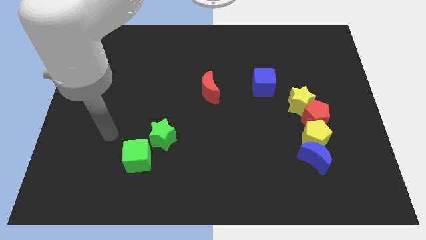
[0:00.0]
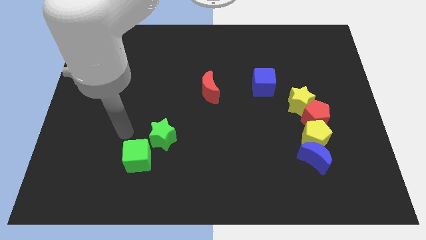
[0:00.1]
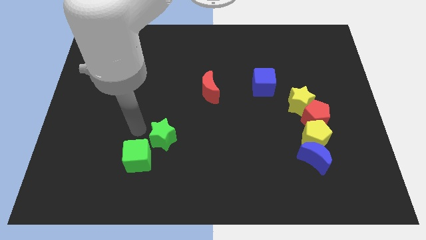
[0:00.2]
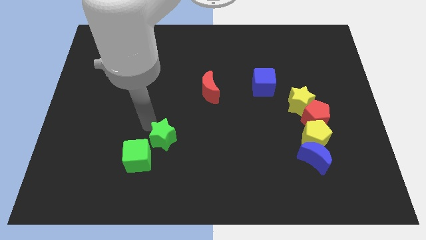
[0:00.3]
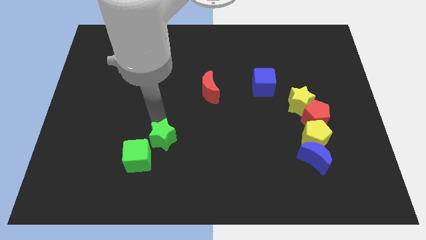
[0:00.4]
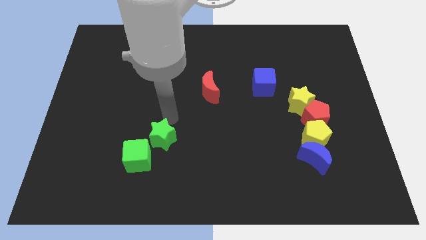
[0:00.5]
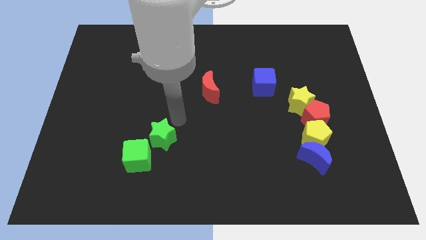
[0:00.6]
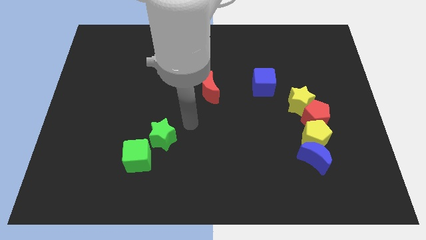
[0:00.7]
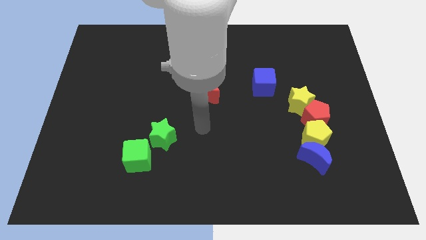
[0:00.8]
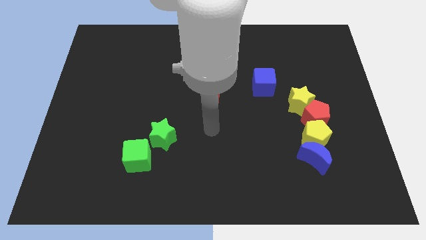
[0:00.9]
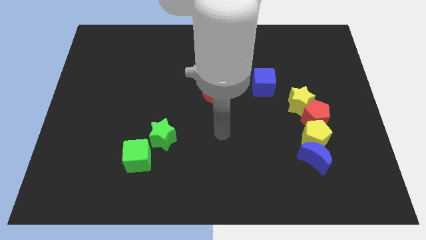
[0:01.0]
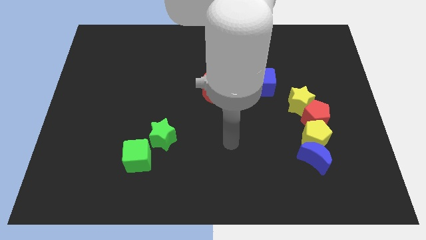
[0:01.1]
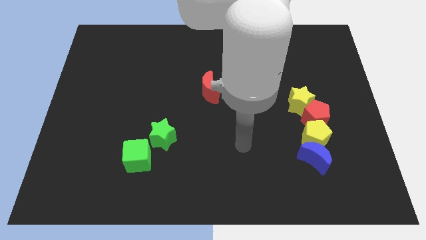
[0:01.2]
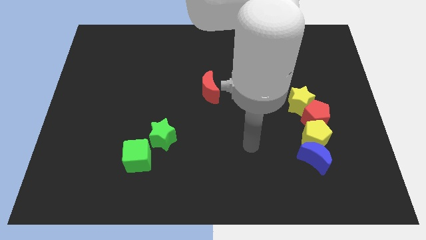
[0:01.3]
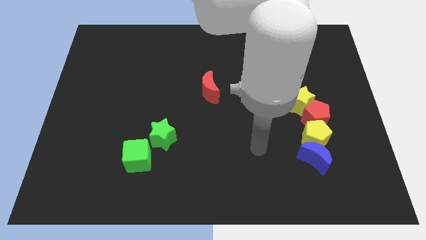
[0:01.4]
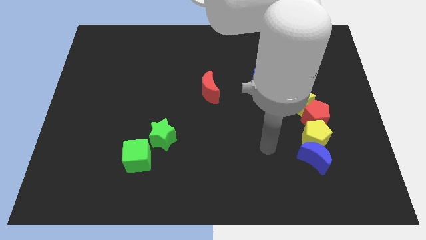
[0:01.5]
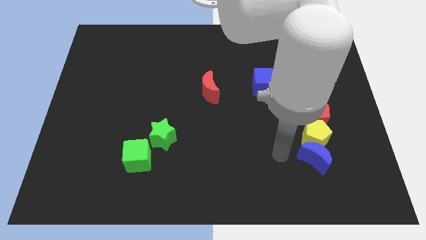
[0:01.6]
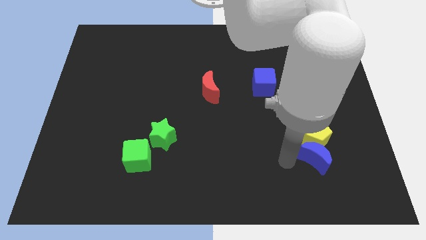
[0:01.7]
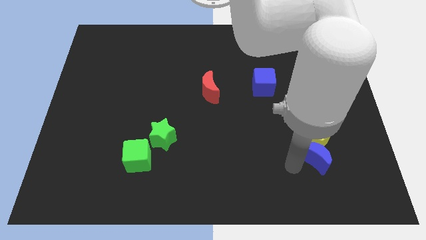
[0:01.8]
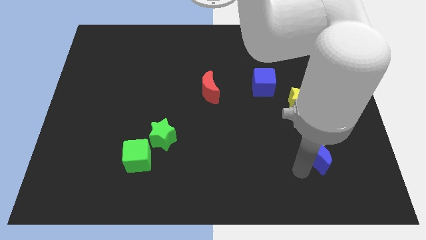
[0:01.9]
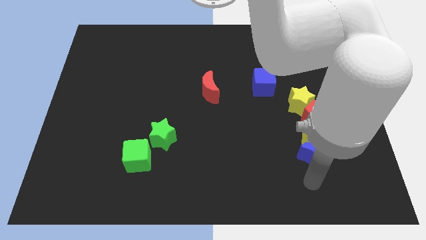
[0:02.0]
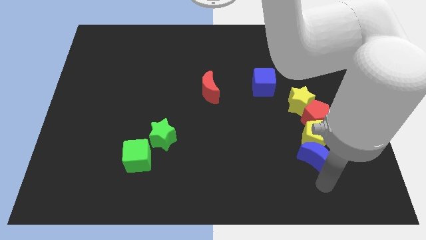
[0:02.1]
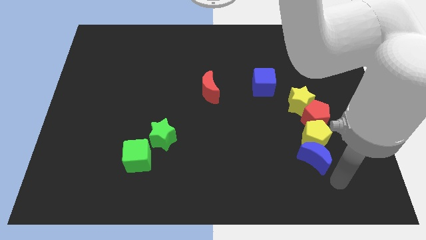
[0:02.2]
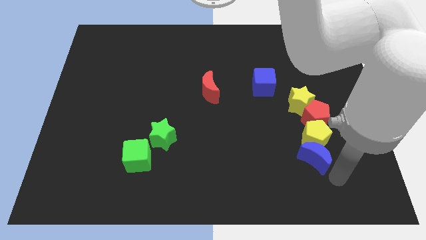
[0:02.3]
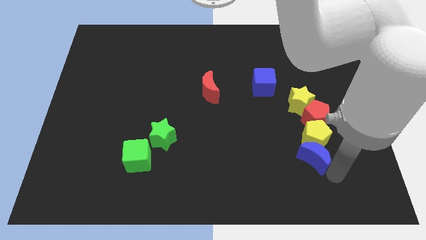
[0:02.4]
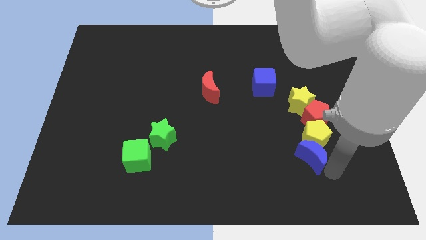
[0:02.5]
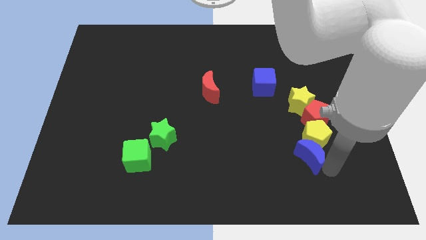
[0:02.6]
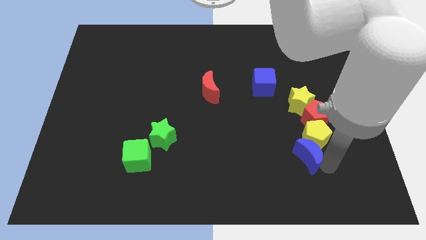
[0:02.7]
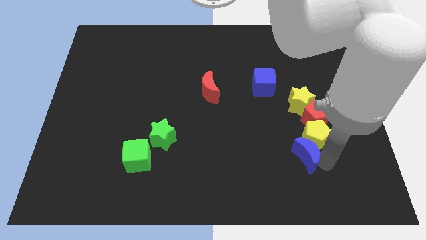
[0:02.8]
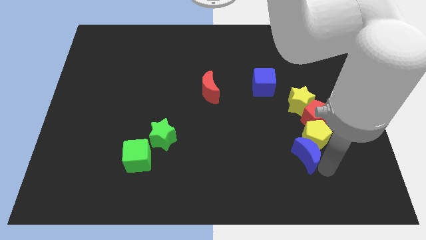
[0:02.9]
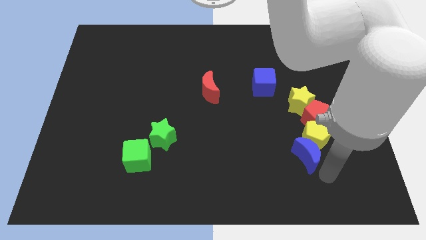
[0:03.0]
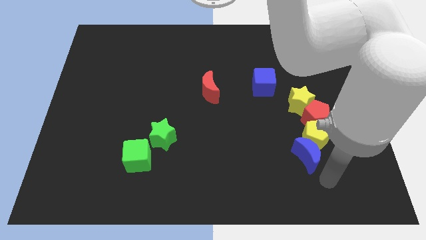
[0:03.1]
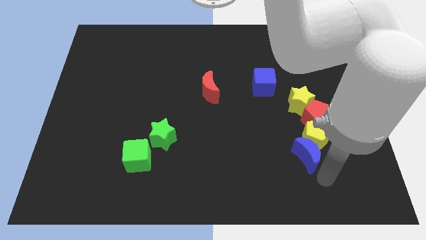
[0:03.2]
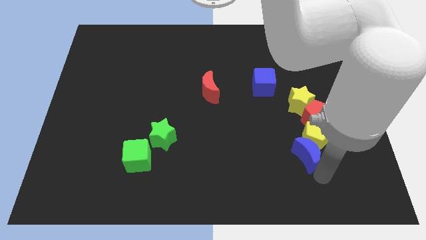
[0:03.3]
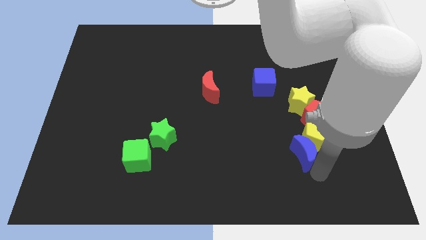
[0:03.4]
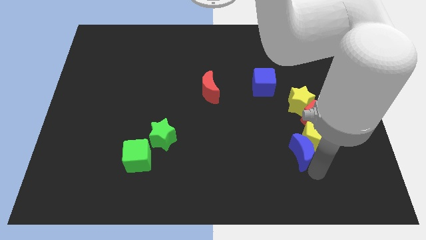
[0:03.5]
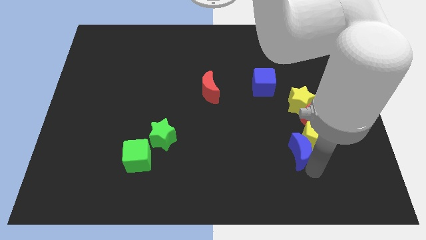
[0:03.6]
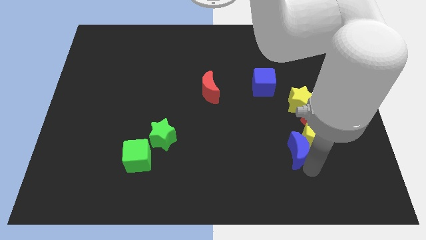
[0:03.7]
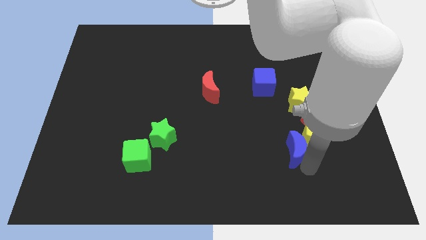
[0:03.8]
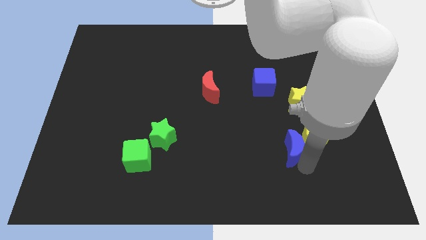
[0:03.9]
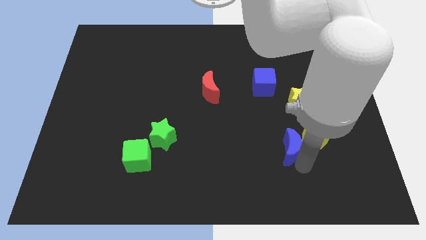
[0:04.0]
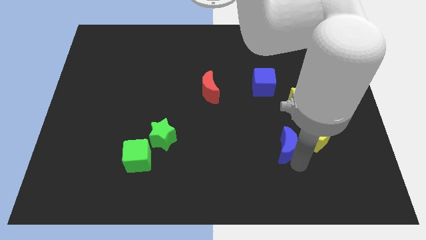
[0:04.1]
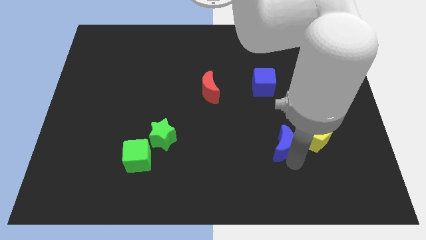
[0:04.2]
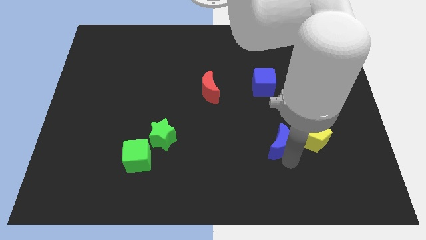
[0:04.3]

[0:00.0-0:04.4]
move the blue moon up and left a bit

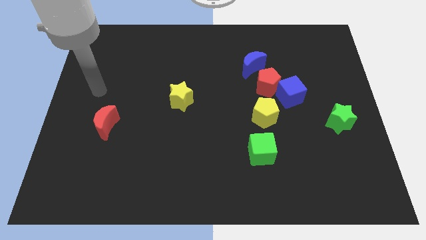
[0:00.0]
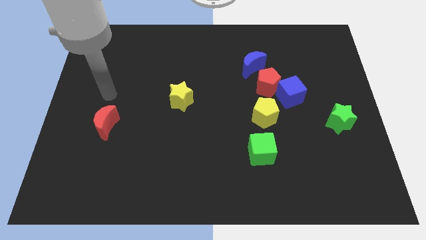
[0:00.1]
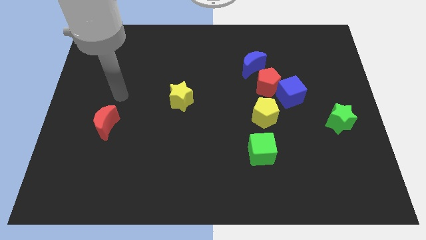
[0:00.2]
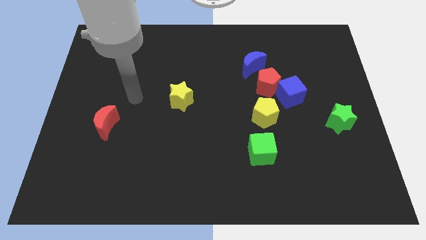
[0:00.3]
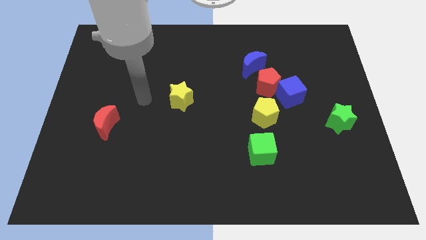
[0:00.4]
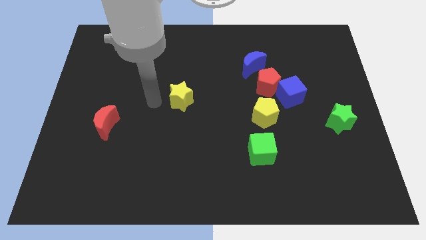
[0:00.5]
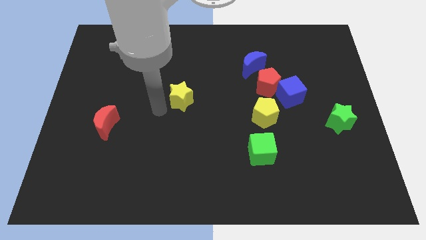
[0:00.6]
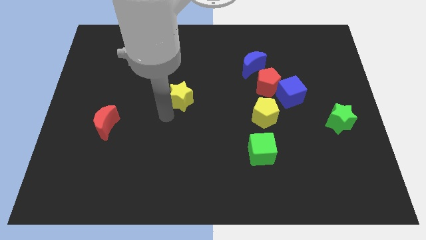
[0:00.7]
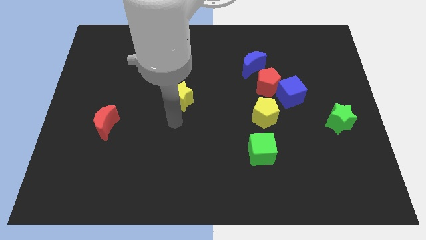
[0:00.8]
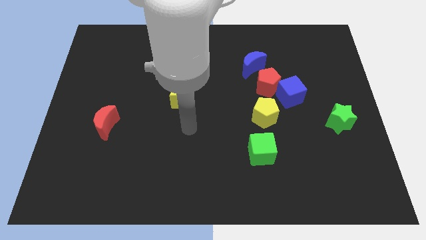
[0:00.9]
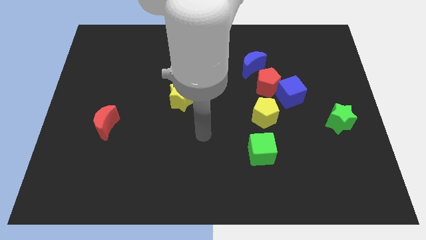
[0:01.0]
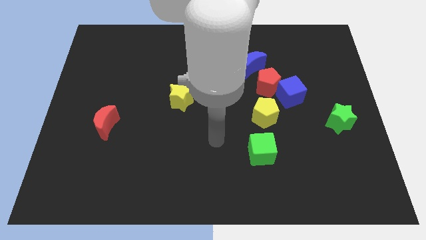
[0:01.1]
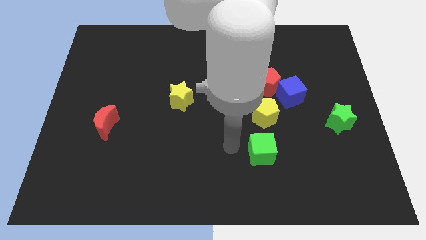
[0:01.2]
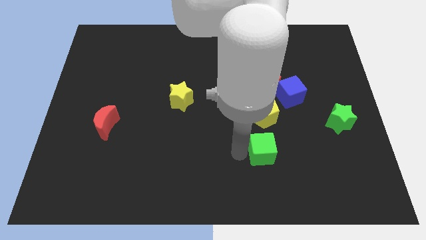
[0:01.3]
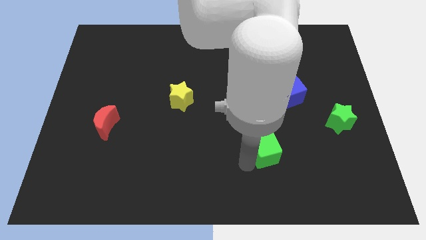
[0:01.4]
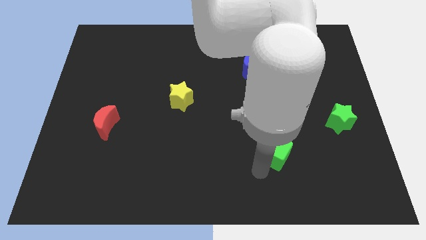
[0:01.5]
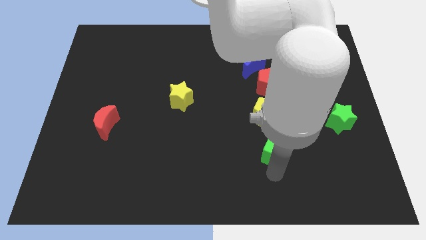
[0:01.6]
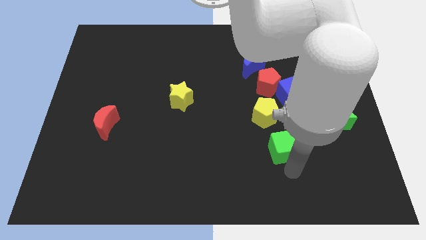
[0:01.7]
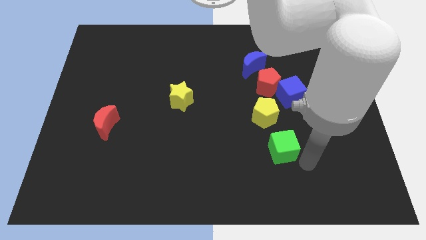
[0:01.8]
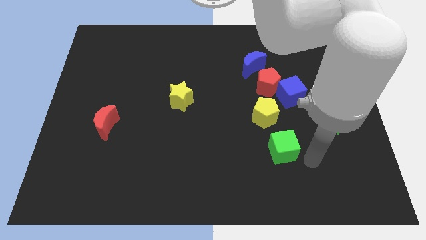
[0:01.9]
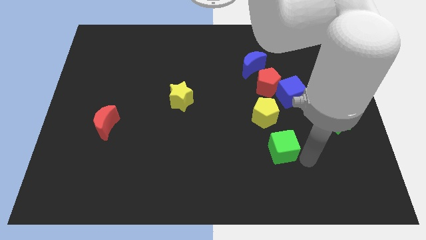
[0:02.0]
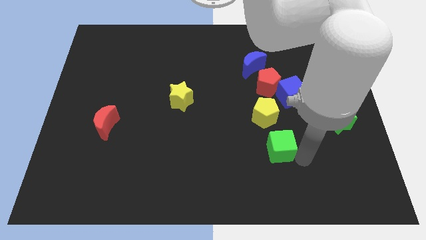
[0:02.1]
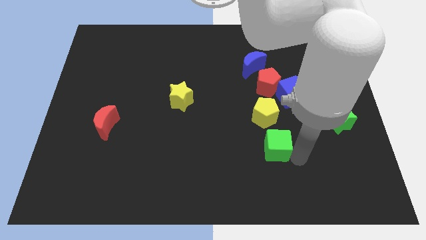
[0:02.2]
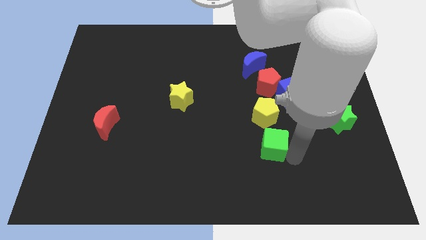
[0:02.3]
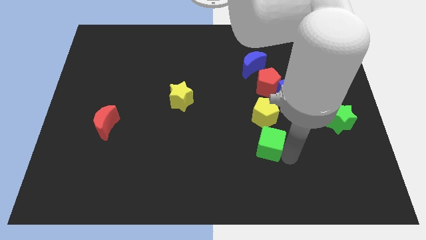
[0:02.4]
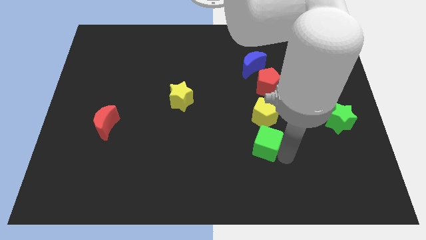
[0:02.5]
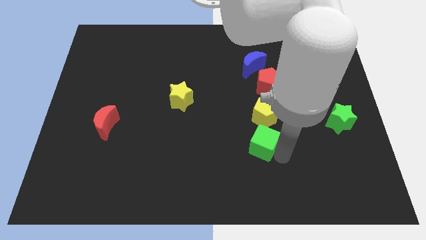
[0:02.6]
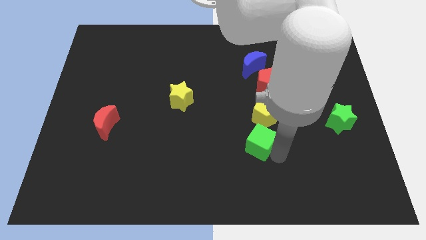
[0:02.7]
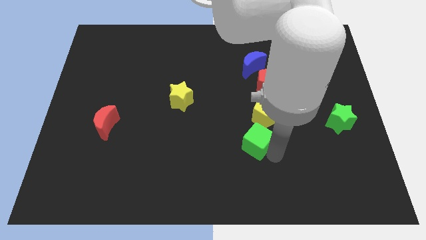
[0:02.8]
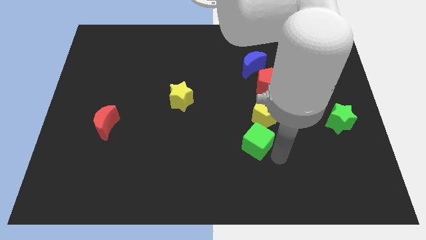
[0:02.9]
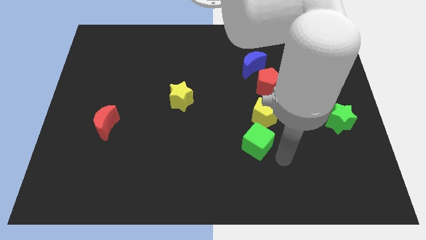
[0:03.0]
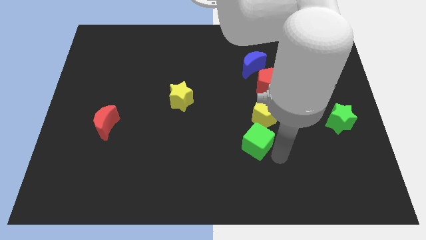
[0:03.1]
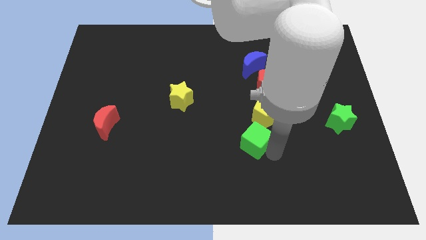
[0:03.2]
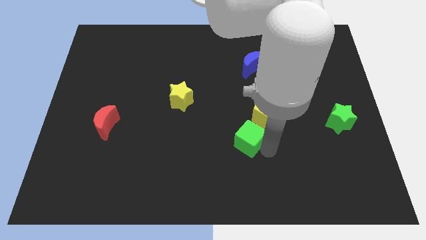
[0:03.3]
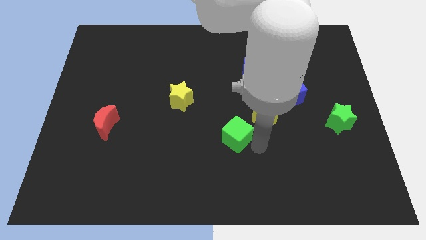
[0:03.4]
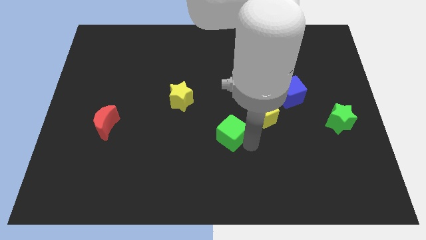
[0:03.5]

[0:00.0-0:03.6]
slightly slide the green cube upwards and to the left diagonally
